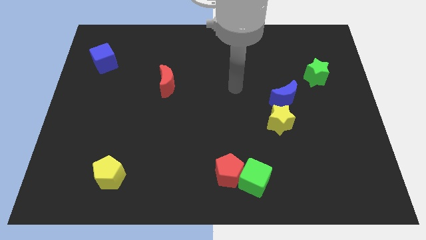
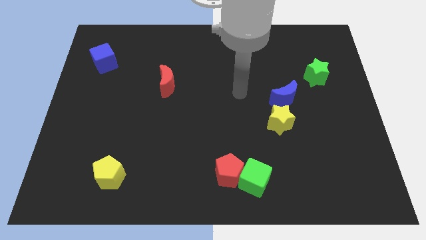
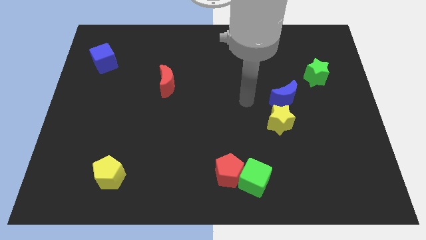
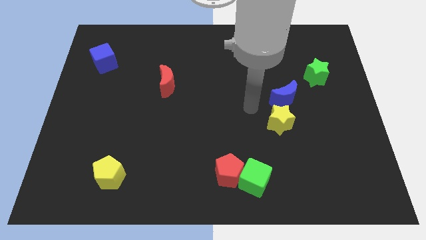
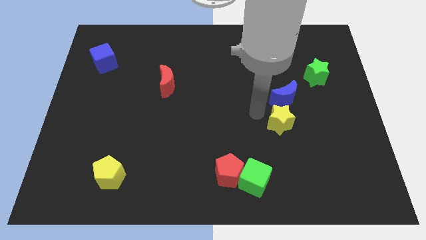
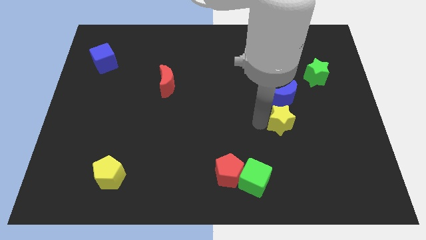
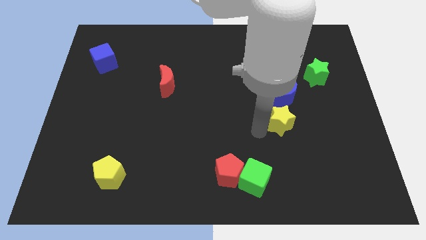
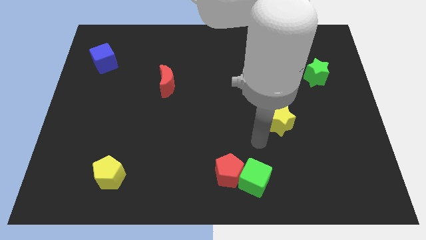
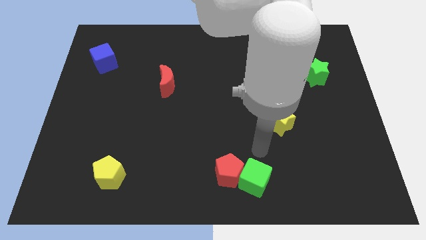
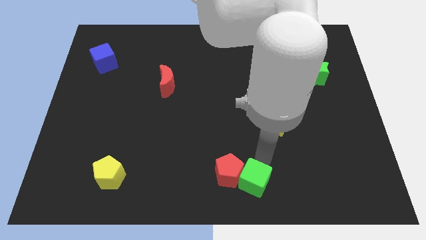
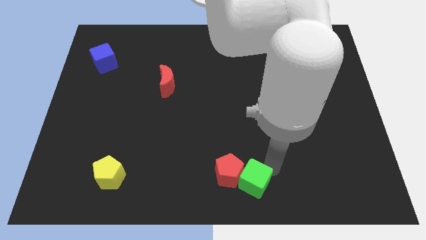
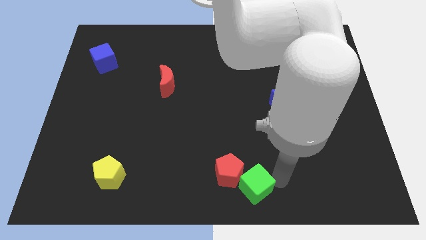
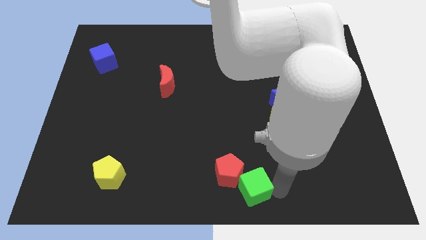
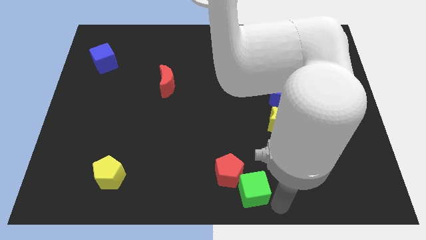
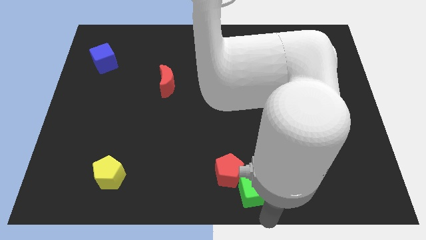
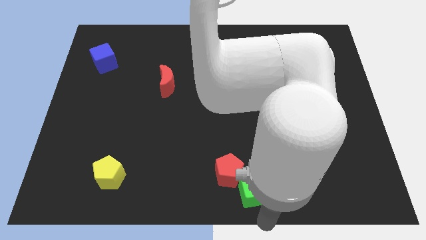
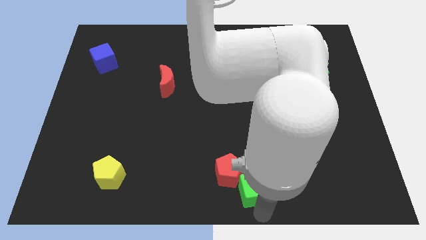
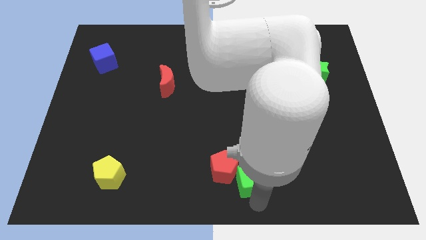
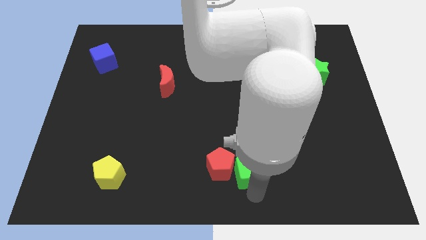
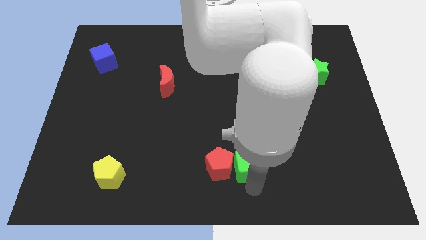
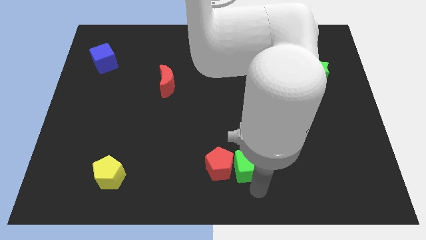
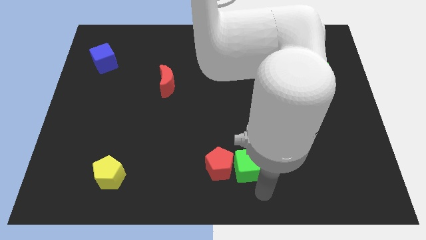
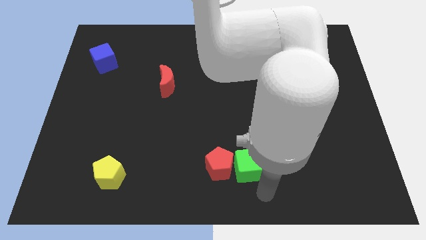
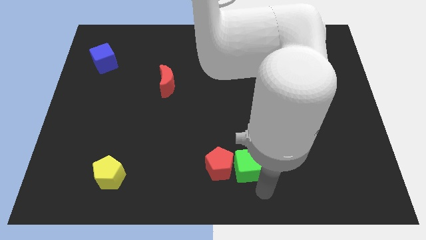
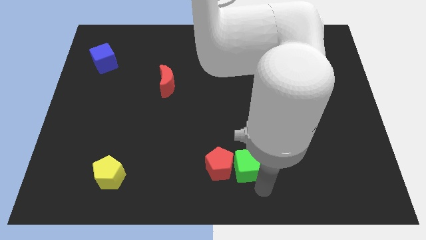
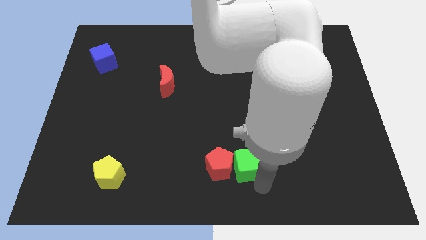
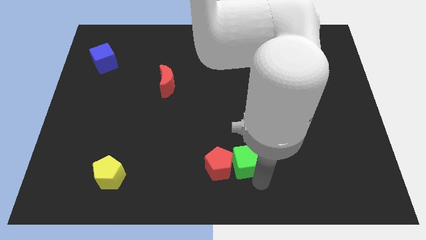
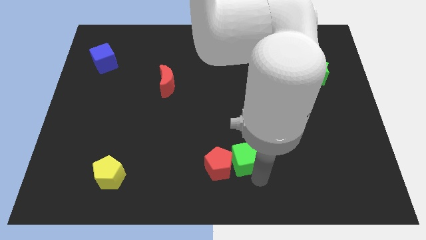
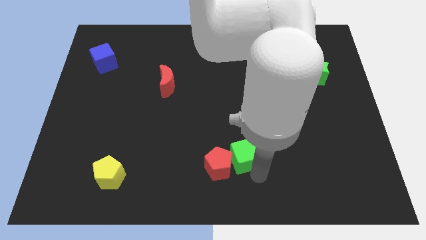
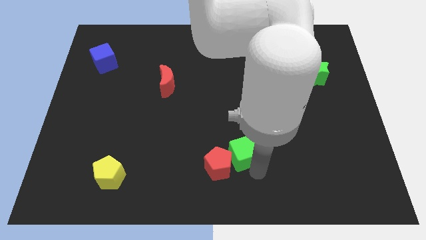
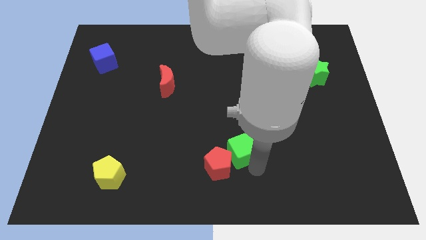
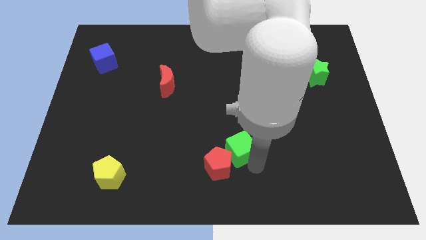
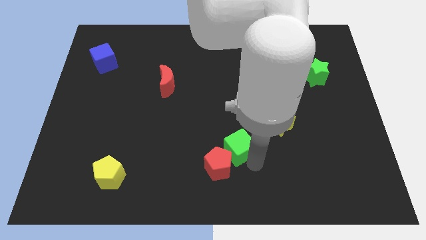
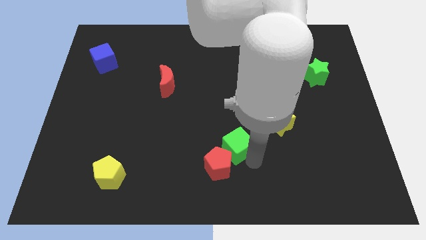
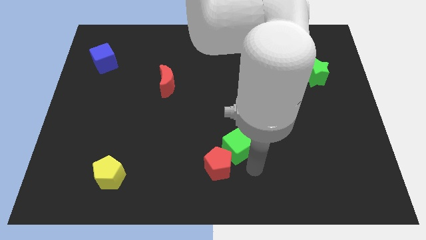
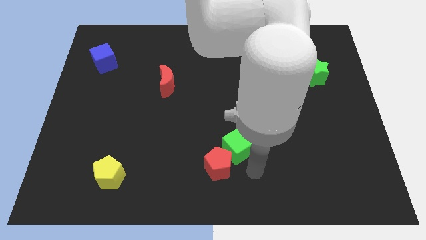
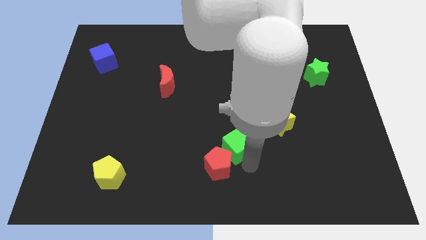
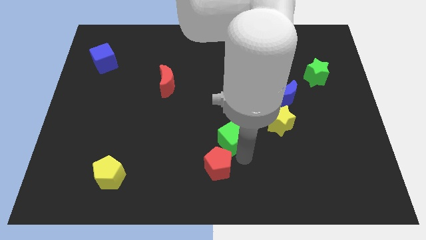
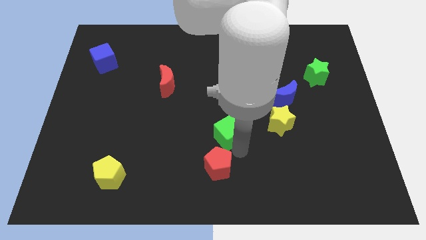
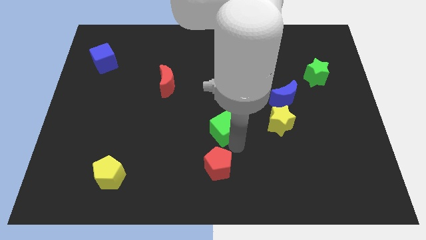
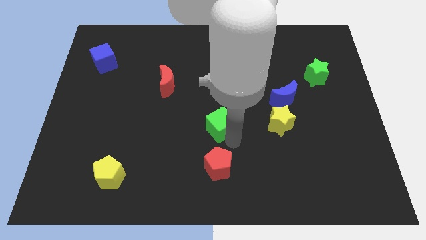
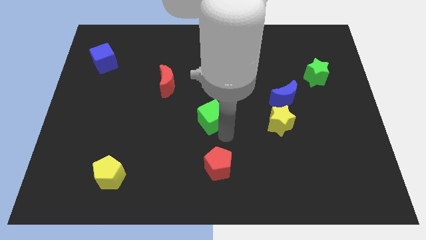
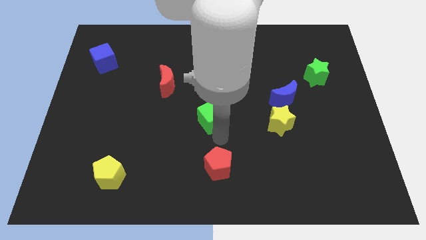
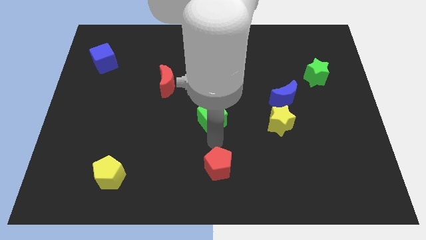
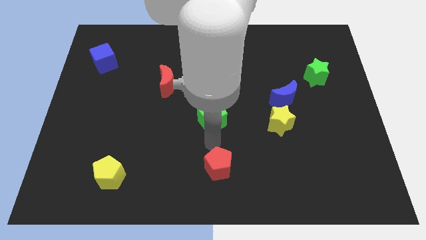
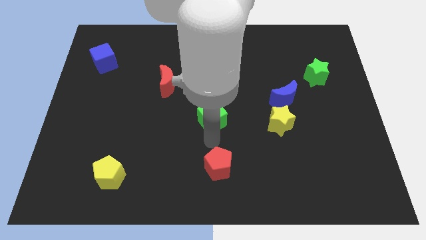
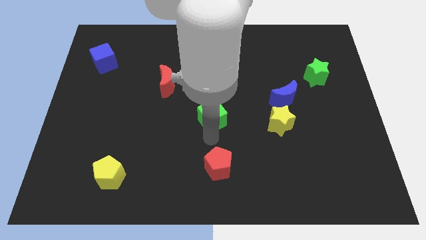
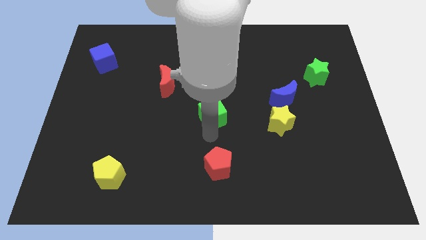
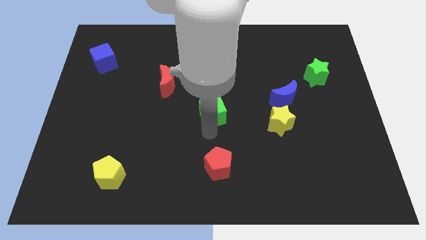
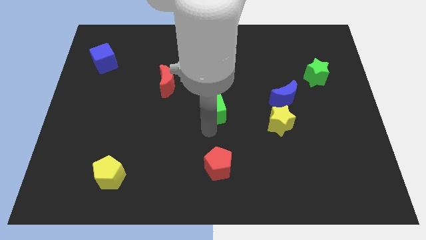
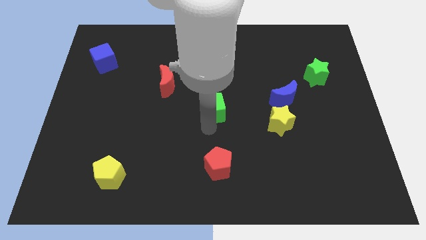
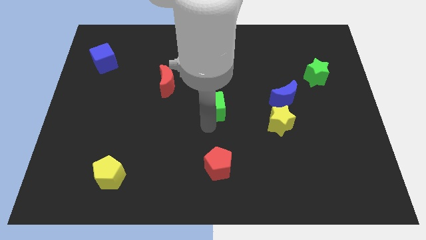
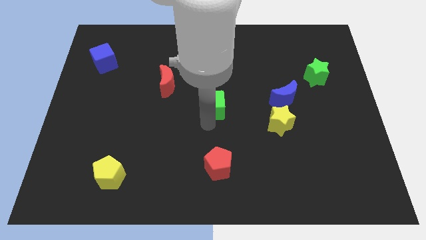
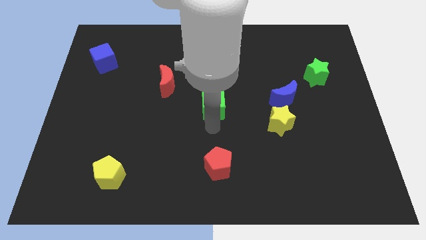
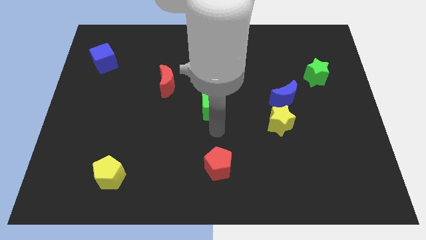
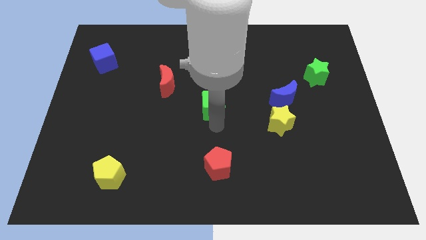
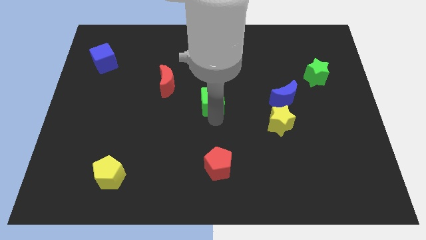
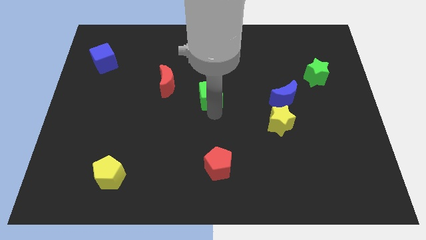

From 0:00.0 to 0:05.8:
move the green cube to the right side of the red moon

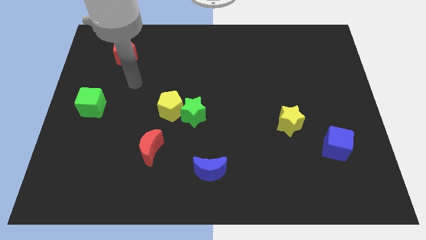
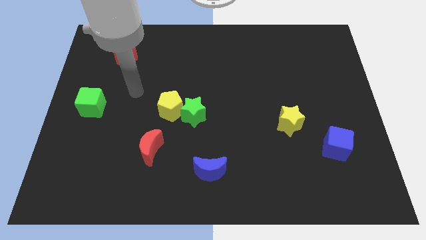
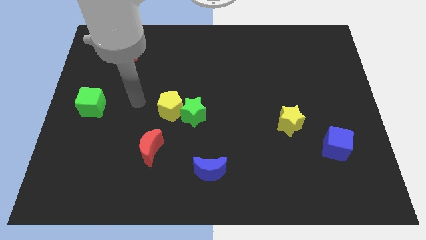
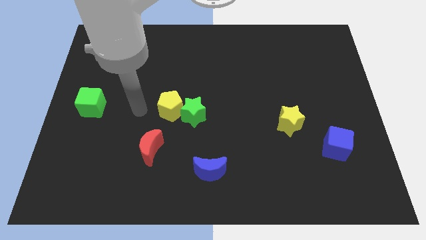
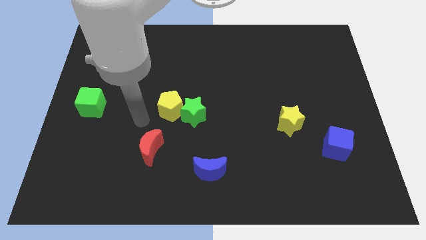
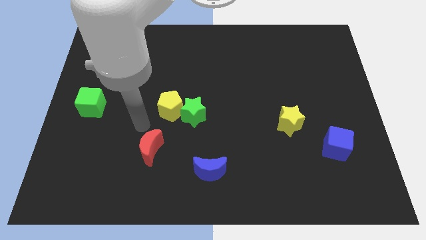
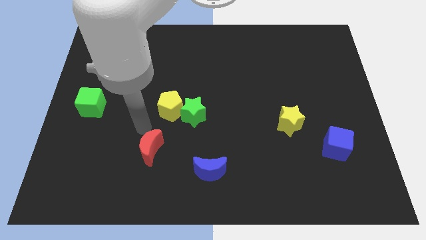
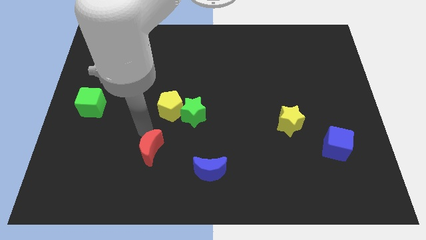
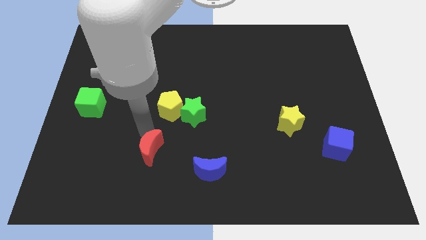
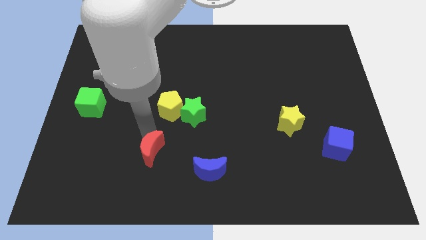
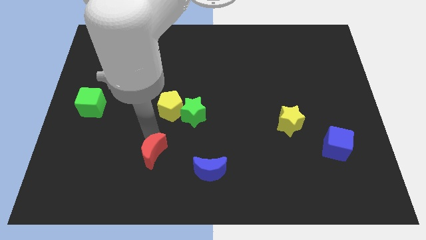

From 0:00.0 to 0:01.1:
move the red moon to the left of the blue moon
